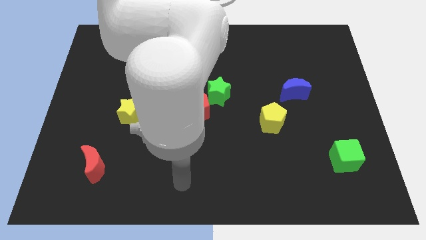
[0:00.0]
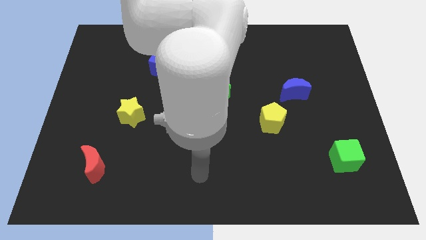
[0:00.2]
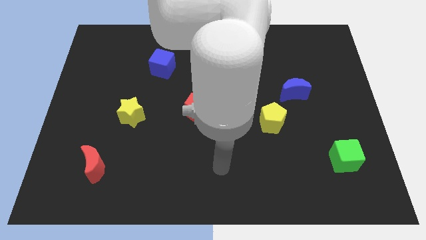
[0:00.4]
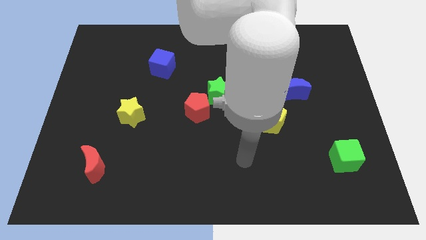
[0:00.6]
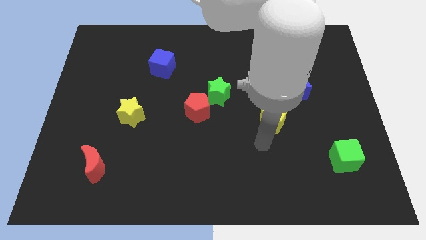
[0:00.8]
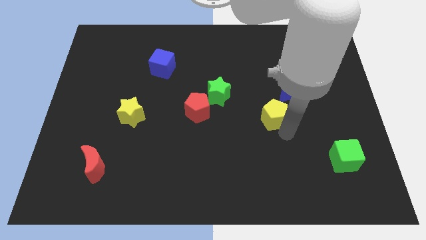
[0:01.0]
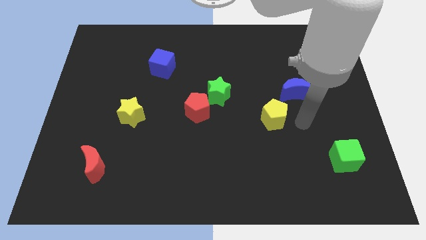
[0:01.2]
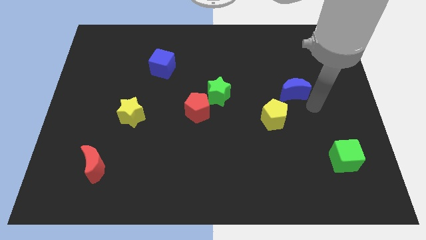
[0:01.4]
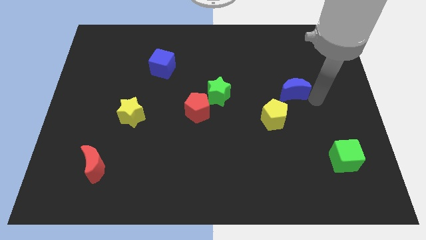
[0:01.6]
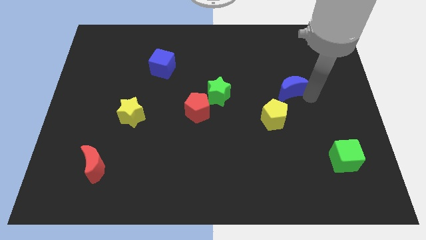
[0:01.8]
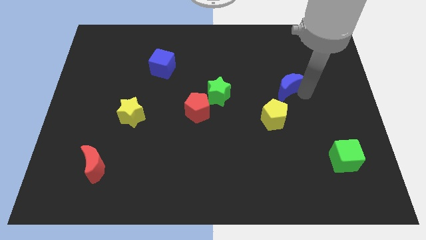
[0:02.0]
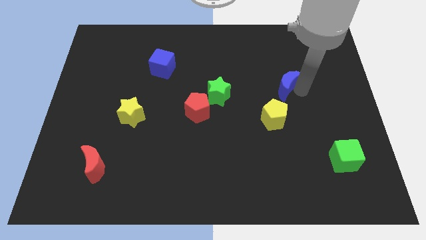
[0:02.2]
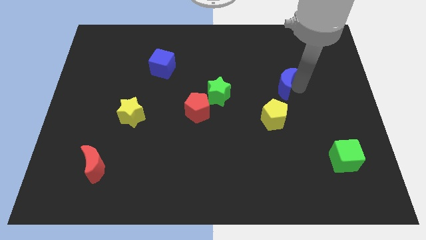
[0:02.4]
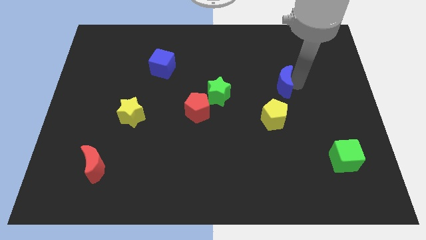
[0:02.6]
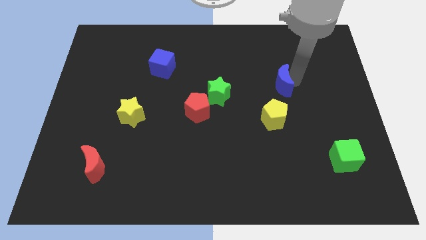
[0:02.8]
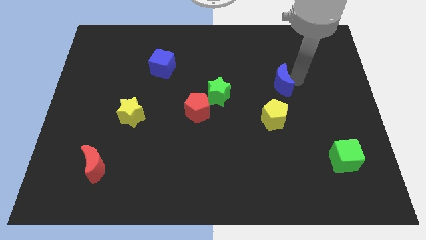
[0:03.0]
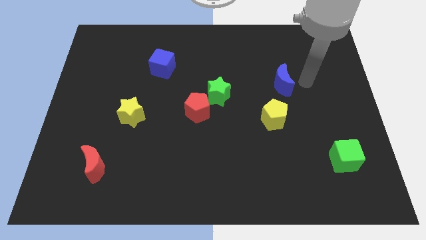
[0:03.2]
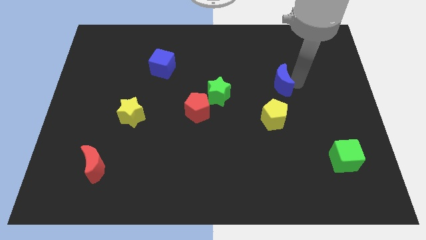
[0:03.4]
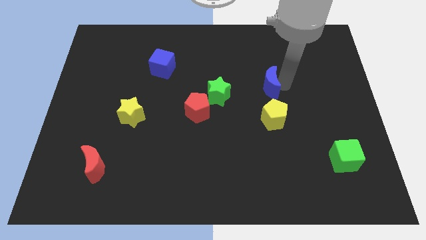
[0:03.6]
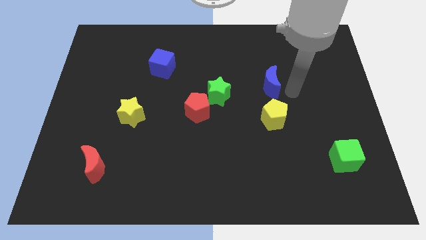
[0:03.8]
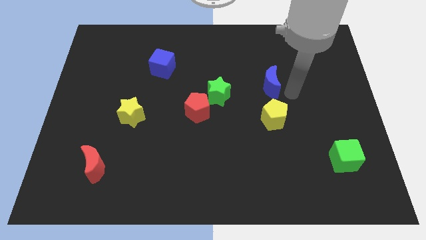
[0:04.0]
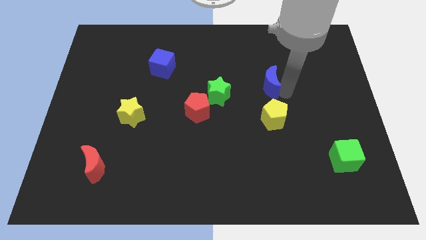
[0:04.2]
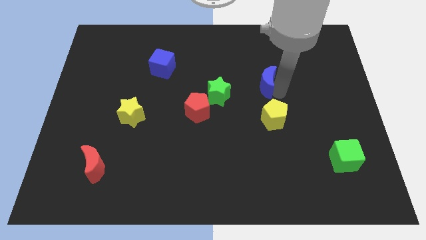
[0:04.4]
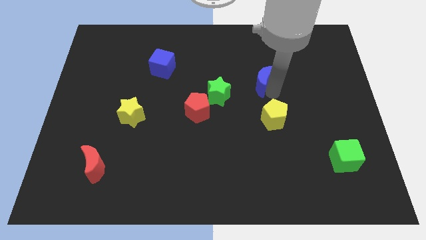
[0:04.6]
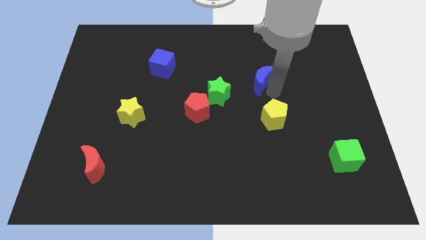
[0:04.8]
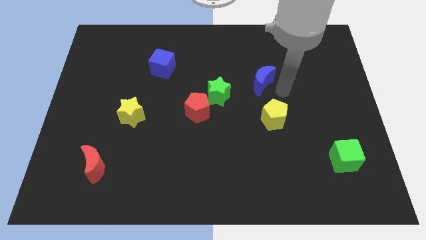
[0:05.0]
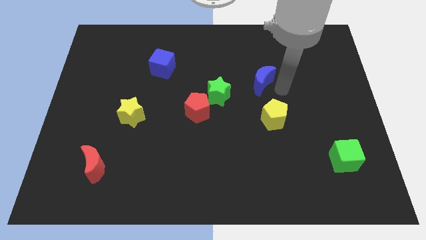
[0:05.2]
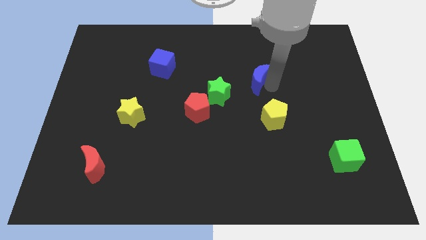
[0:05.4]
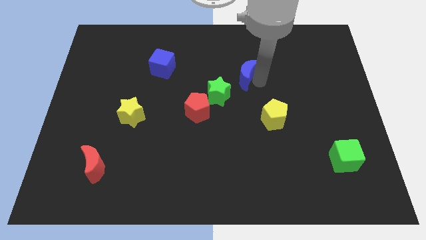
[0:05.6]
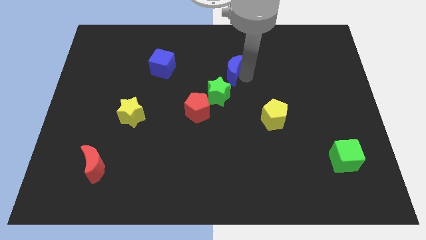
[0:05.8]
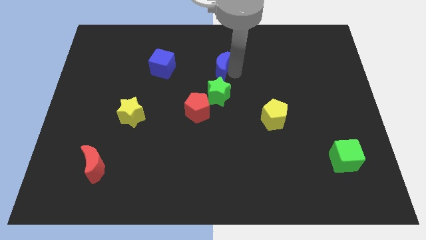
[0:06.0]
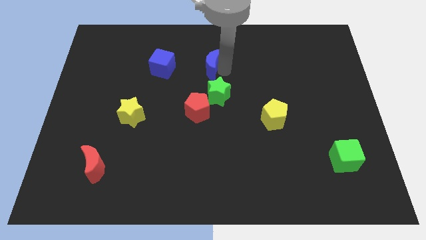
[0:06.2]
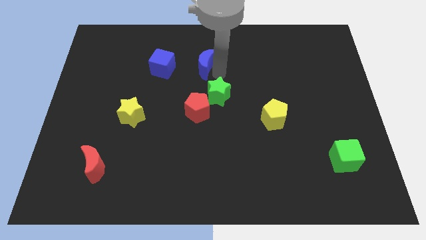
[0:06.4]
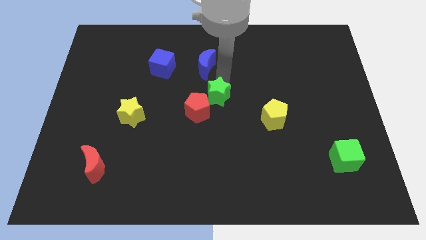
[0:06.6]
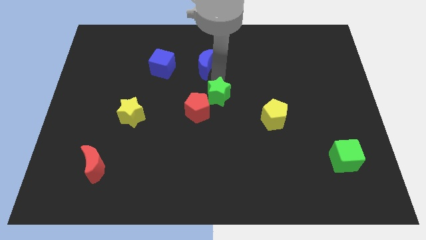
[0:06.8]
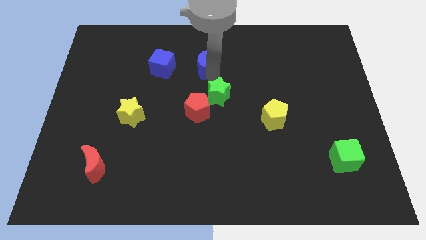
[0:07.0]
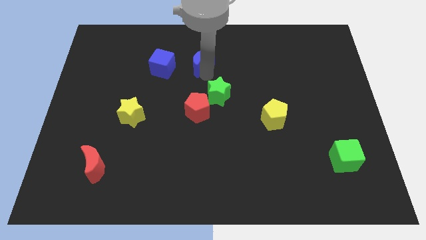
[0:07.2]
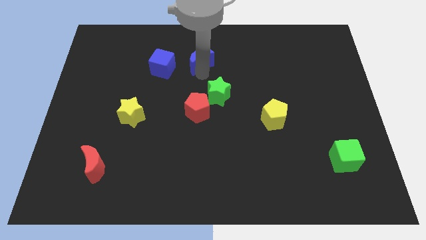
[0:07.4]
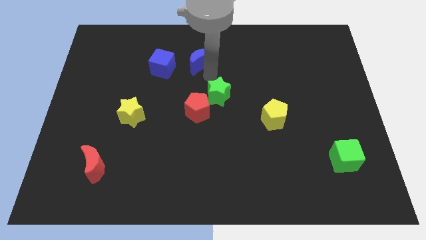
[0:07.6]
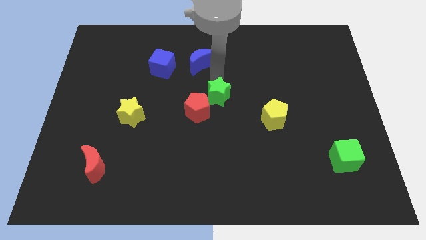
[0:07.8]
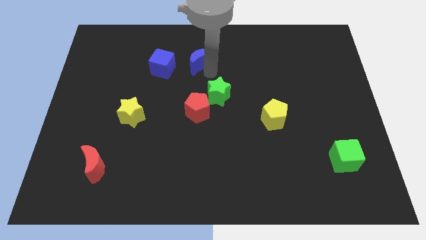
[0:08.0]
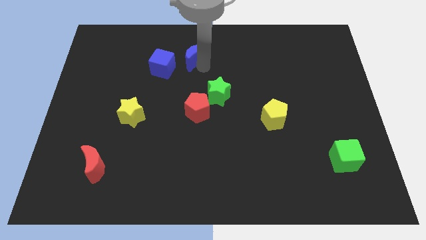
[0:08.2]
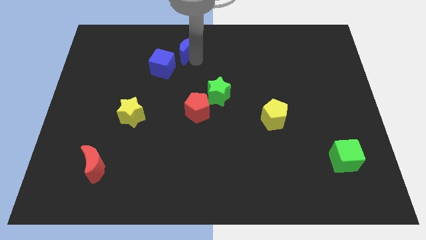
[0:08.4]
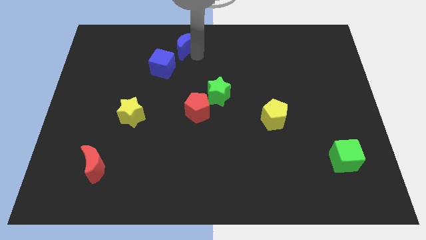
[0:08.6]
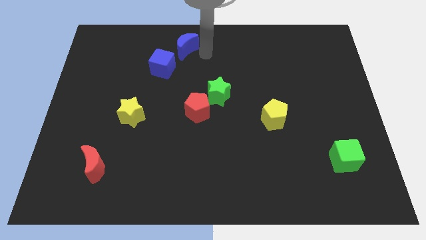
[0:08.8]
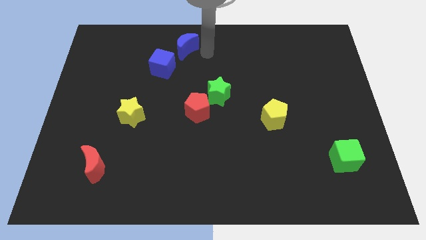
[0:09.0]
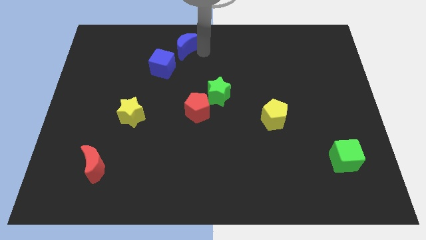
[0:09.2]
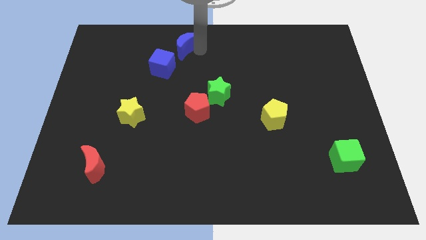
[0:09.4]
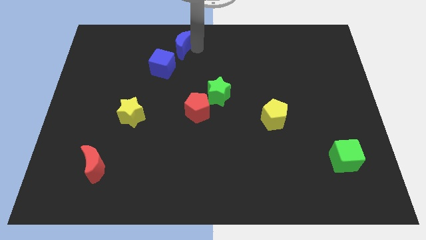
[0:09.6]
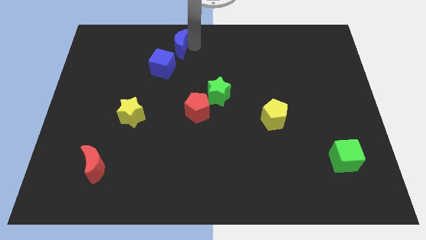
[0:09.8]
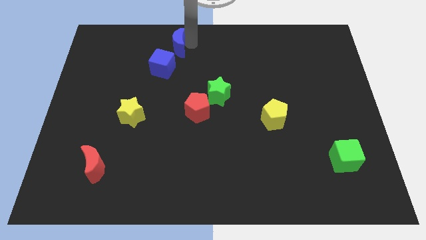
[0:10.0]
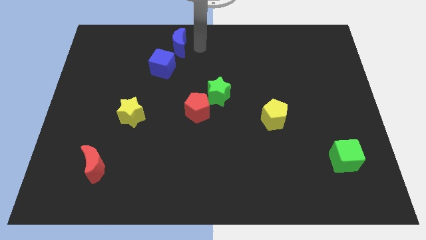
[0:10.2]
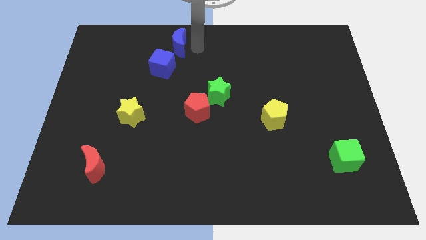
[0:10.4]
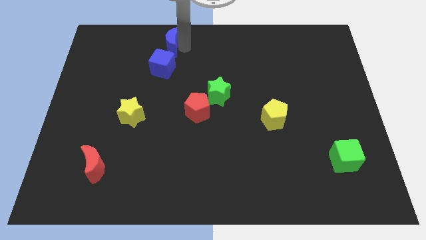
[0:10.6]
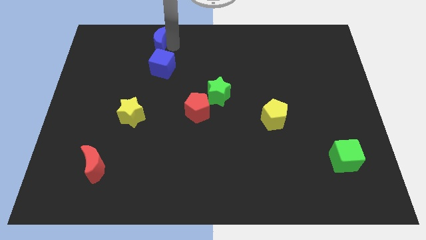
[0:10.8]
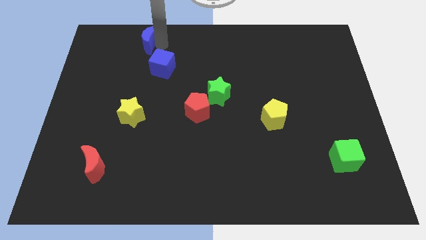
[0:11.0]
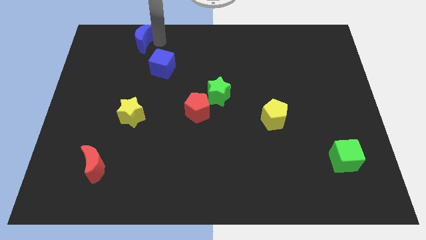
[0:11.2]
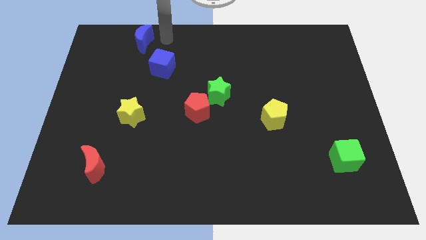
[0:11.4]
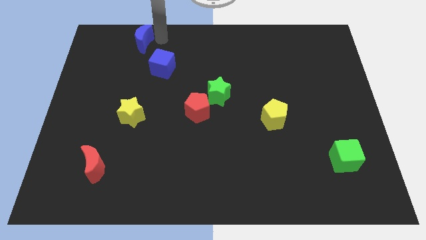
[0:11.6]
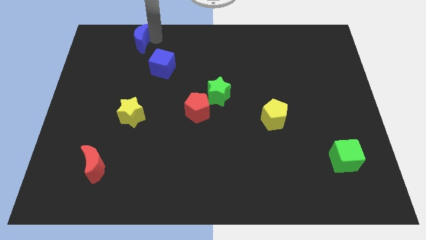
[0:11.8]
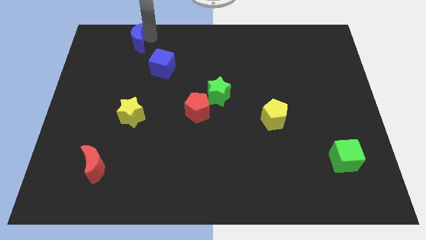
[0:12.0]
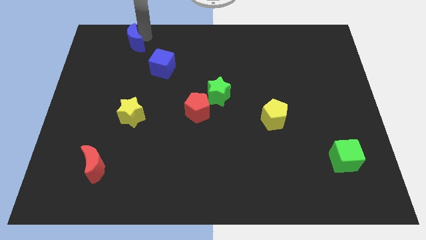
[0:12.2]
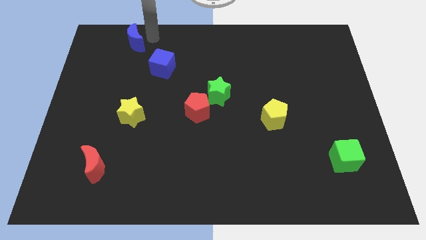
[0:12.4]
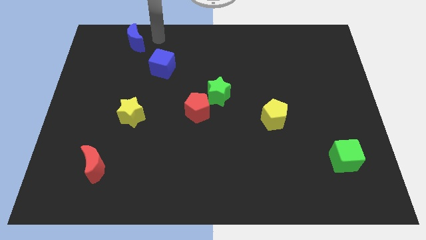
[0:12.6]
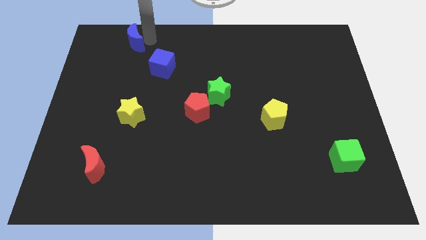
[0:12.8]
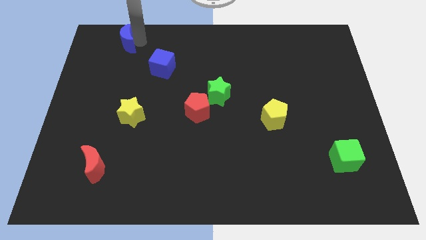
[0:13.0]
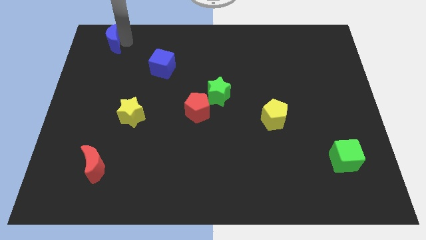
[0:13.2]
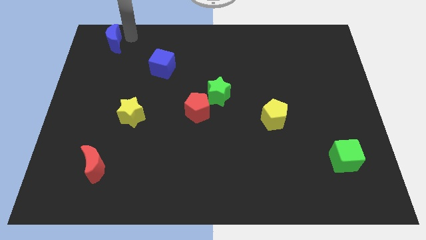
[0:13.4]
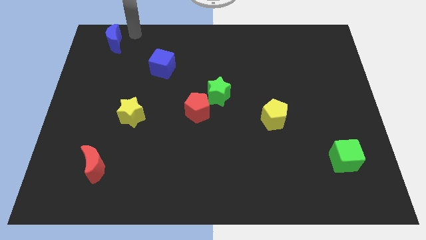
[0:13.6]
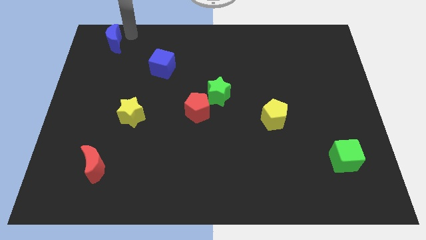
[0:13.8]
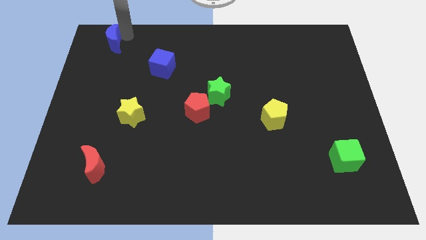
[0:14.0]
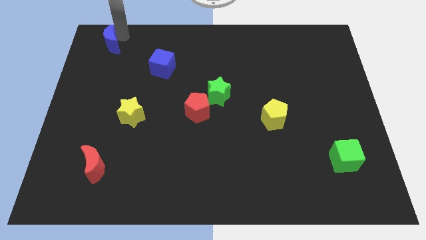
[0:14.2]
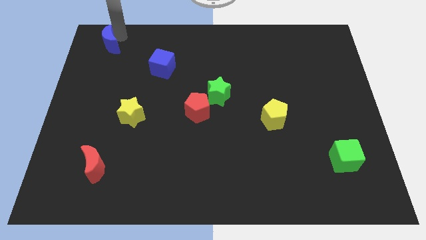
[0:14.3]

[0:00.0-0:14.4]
move the blue moon to the top left
